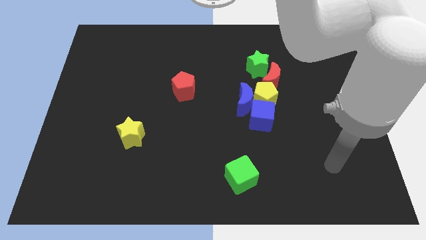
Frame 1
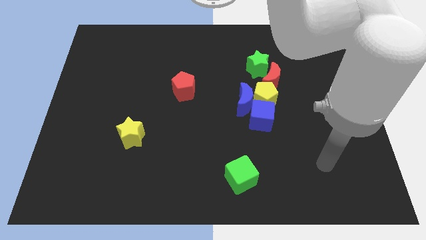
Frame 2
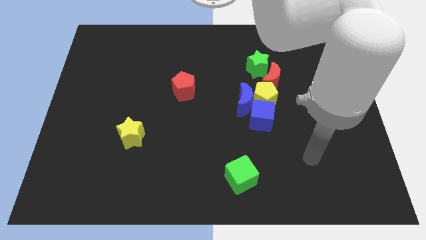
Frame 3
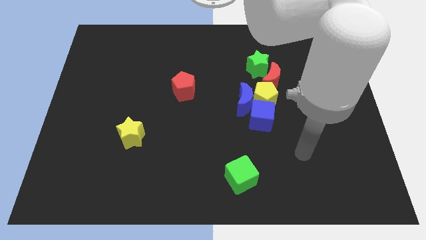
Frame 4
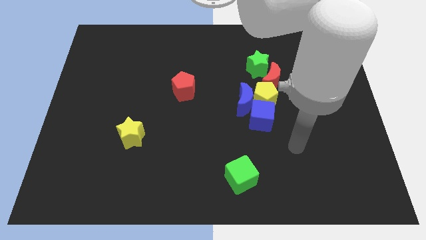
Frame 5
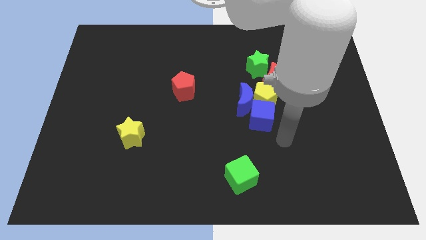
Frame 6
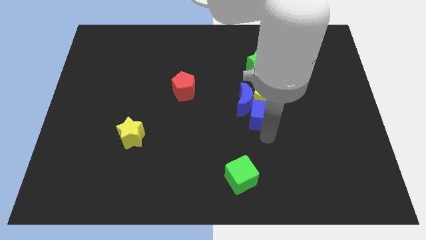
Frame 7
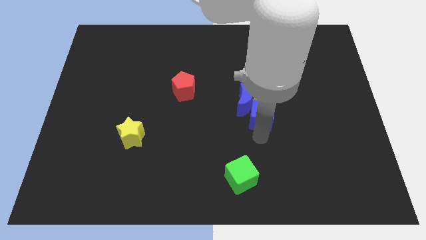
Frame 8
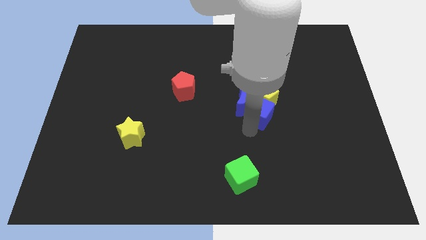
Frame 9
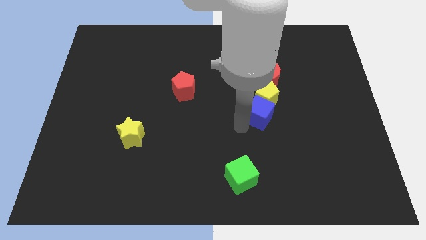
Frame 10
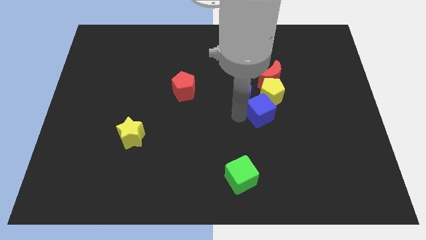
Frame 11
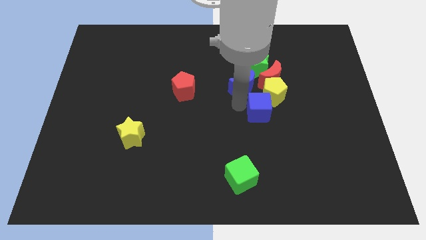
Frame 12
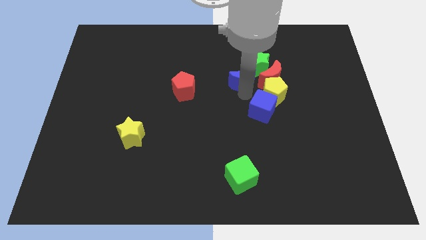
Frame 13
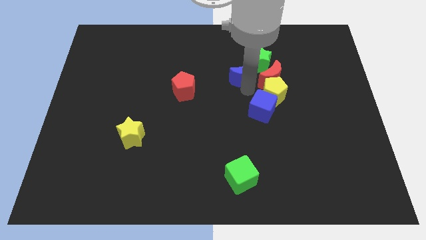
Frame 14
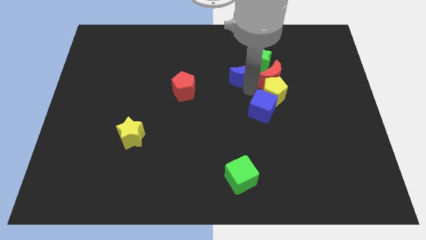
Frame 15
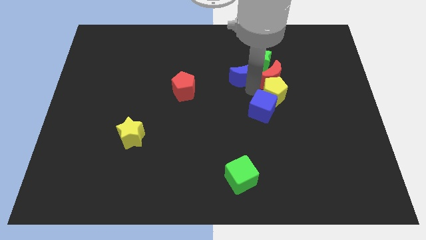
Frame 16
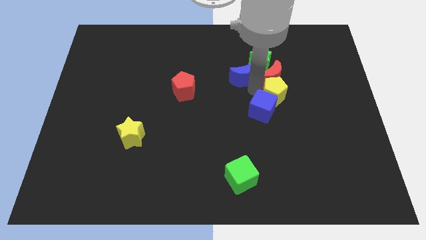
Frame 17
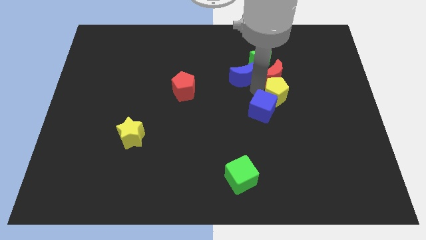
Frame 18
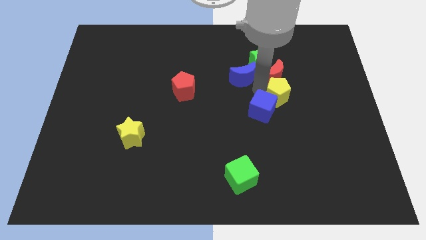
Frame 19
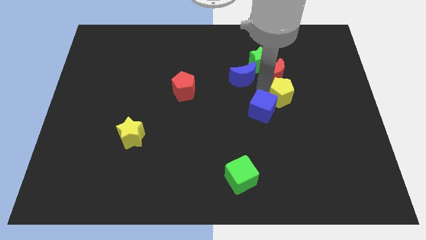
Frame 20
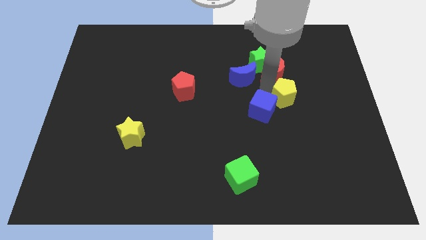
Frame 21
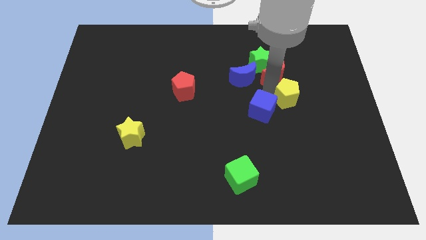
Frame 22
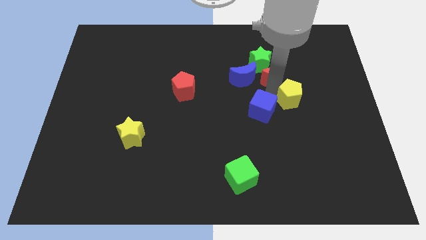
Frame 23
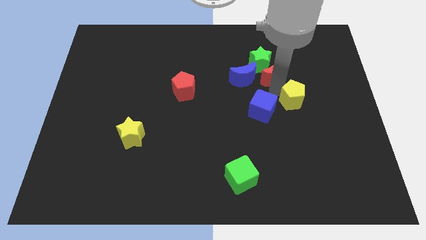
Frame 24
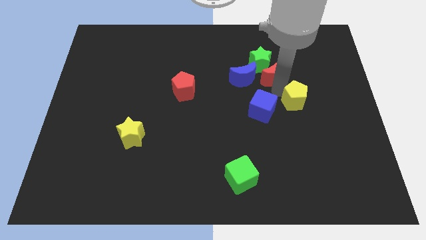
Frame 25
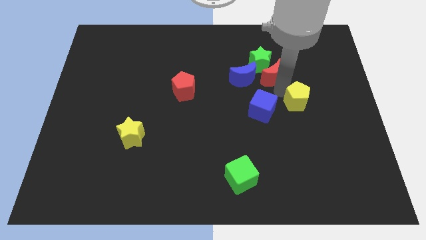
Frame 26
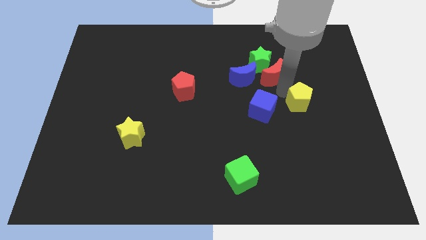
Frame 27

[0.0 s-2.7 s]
pull the yellow pentagon apart from the blue moon, red moon, and blue cube

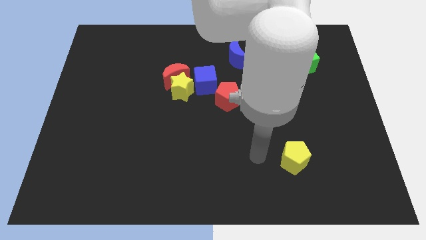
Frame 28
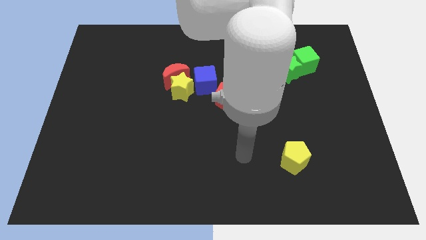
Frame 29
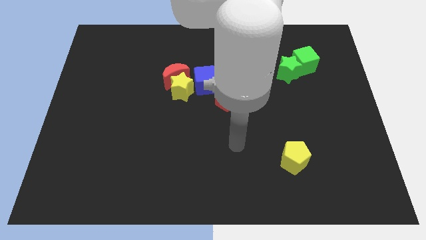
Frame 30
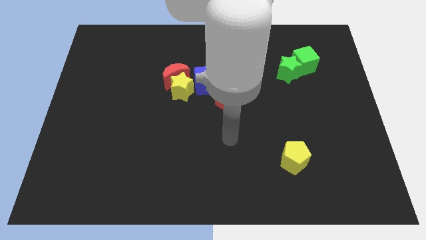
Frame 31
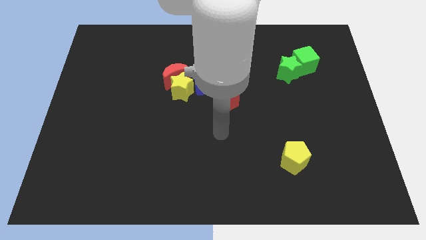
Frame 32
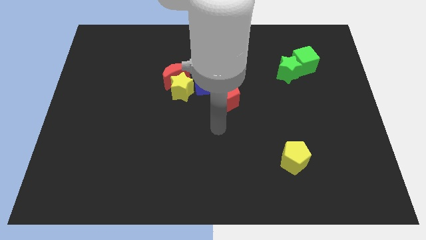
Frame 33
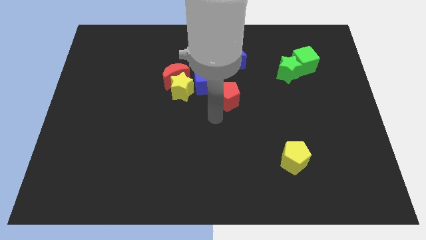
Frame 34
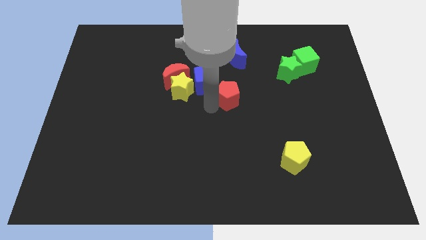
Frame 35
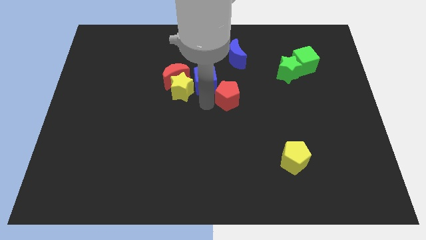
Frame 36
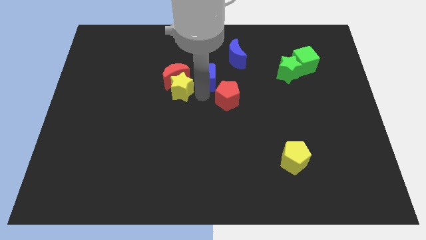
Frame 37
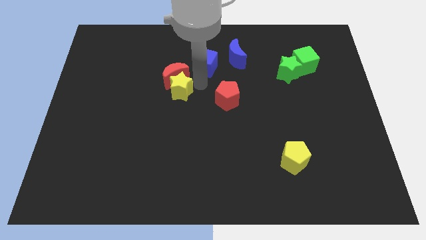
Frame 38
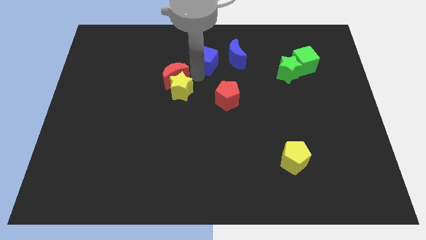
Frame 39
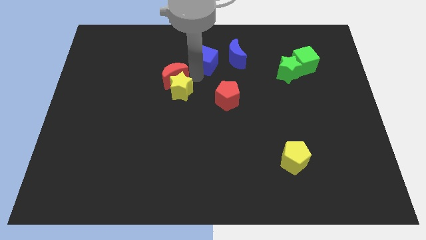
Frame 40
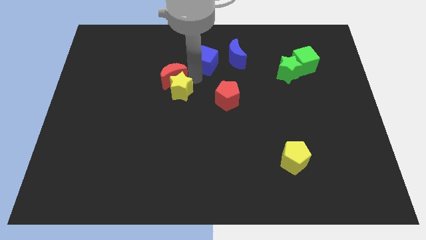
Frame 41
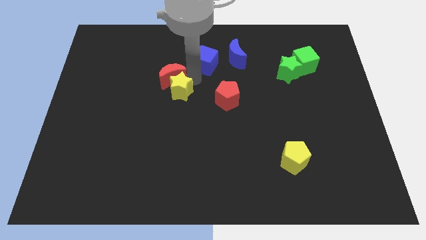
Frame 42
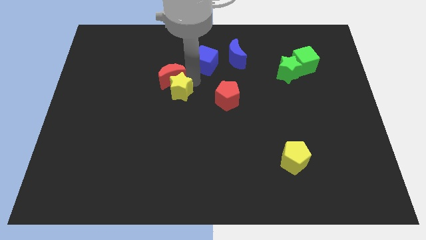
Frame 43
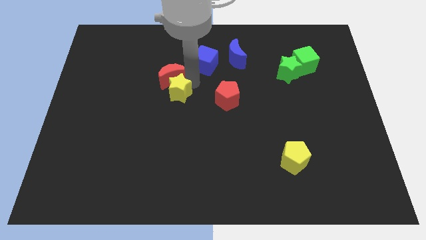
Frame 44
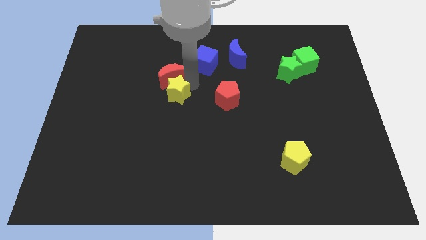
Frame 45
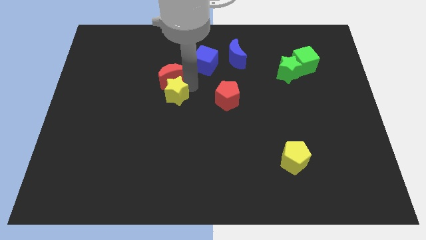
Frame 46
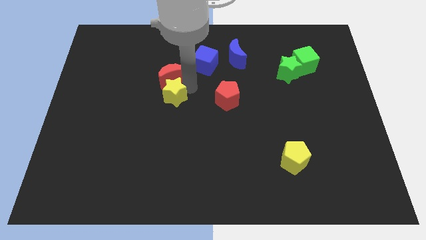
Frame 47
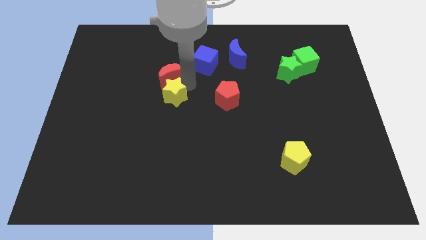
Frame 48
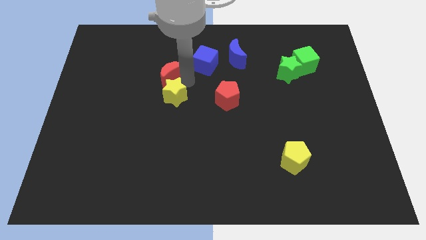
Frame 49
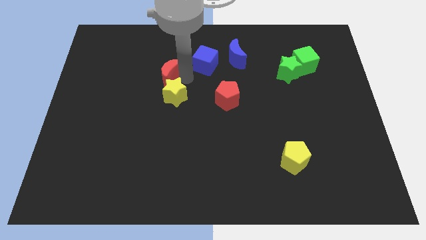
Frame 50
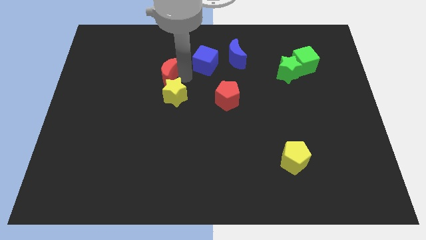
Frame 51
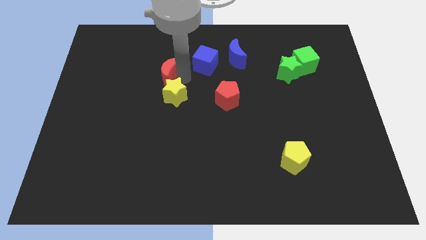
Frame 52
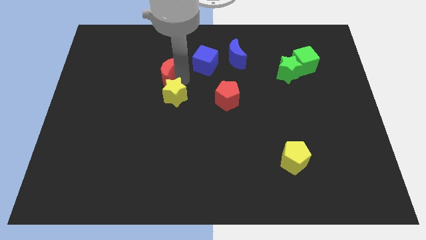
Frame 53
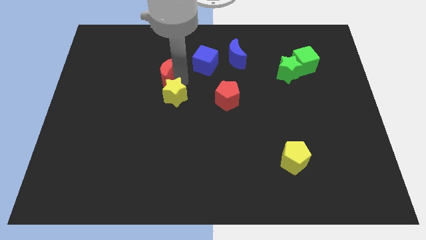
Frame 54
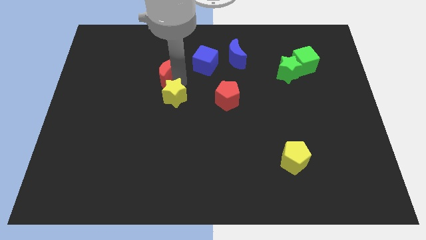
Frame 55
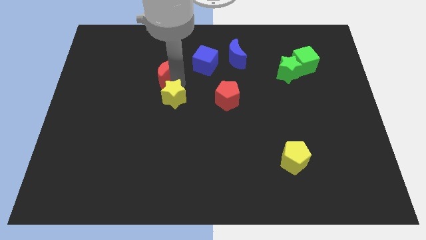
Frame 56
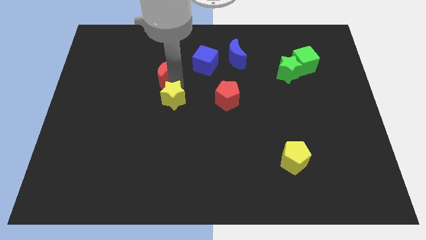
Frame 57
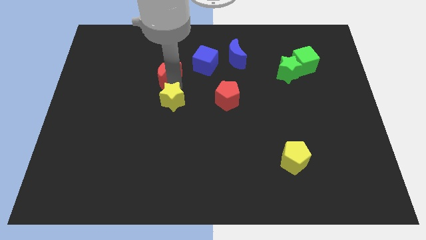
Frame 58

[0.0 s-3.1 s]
pull the yellow star apart from the red moon and blue cube

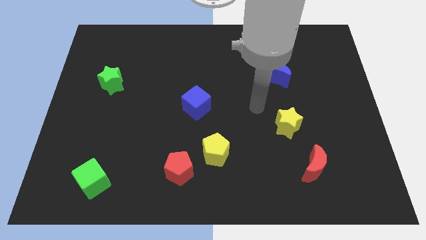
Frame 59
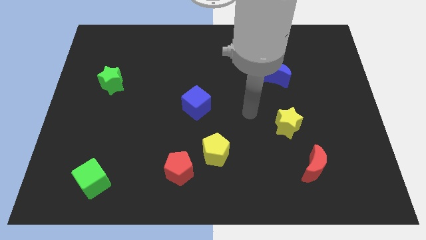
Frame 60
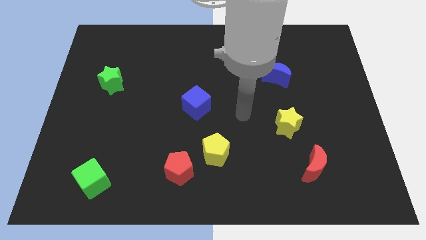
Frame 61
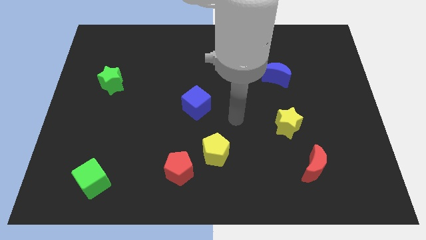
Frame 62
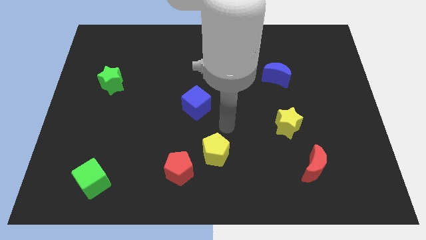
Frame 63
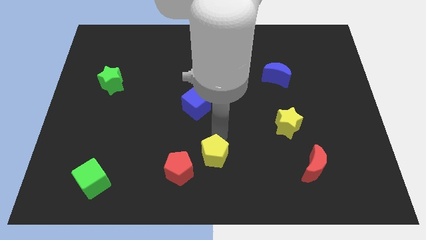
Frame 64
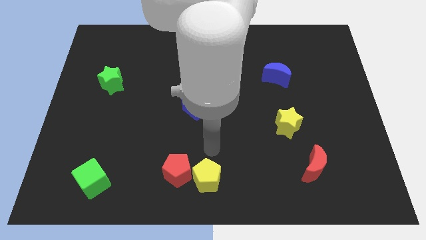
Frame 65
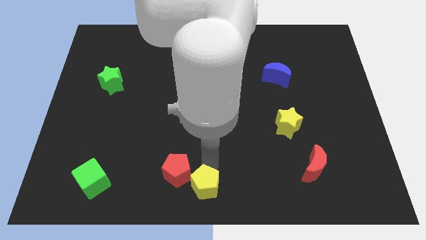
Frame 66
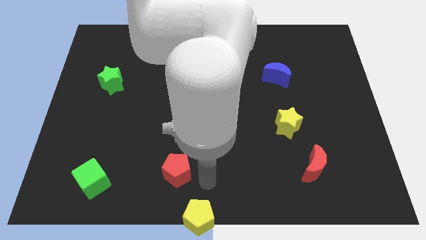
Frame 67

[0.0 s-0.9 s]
move the red pentagon away from the yellow pentagon

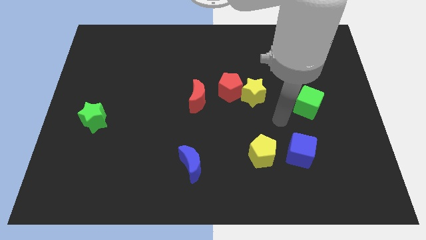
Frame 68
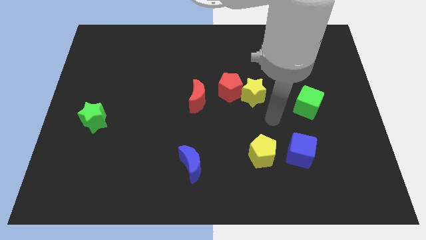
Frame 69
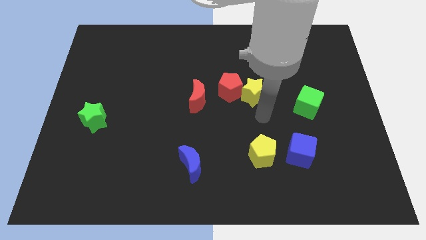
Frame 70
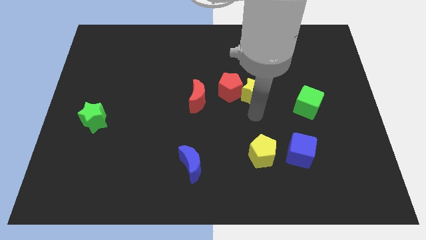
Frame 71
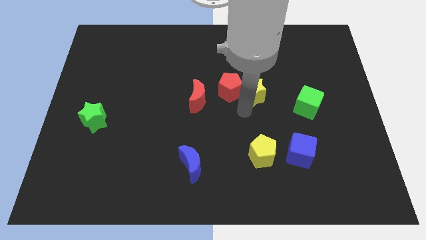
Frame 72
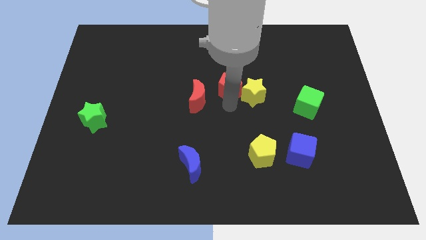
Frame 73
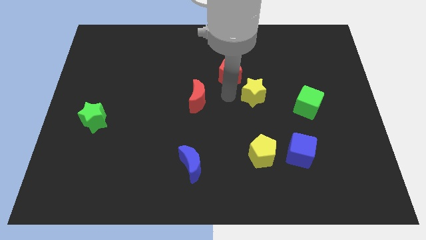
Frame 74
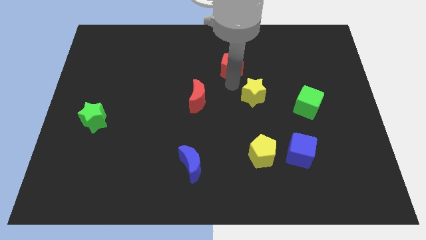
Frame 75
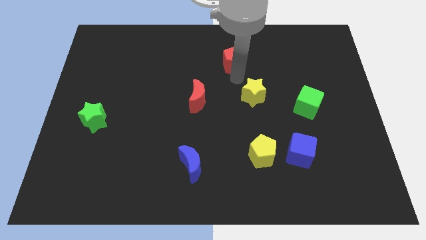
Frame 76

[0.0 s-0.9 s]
pull the yellow star apart from the red pentagon

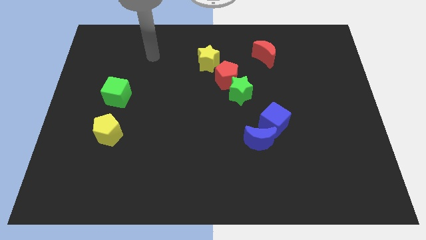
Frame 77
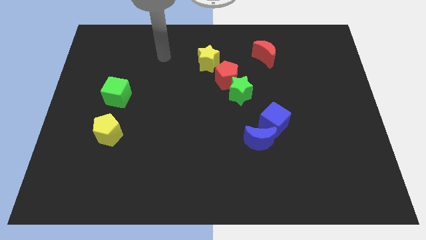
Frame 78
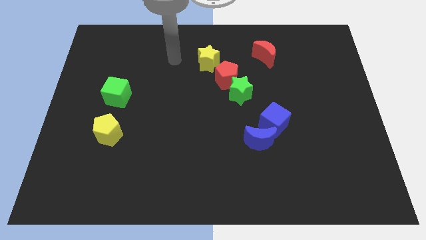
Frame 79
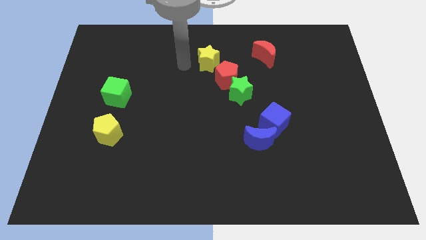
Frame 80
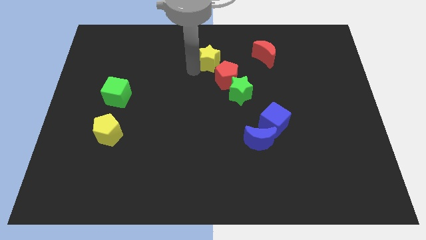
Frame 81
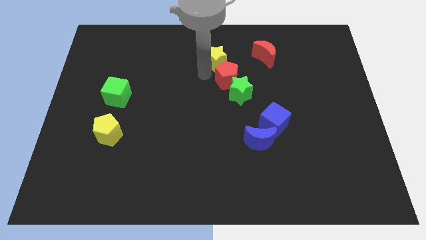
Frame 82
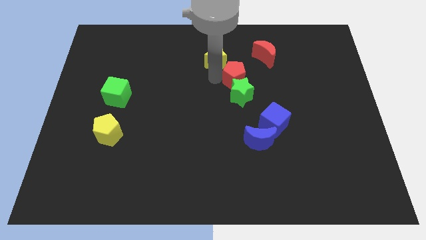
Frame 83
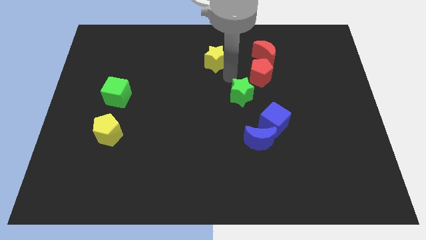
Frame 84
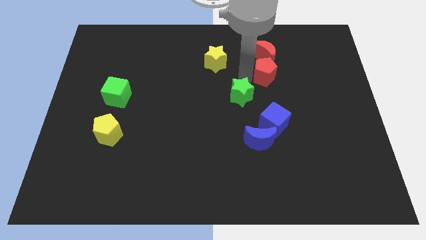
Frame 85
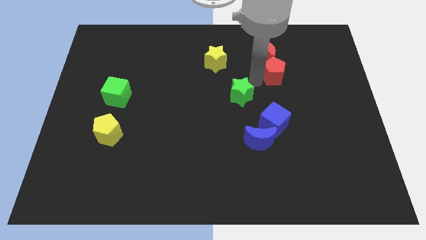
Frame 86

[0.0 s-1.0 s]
move the green star away from the red pentagon

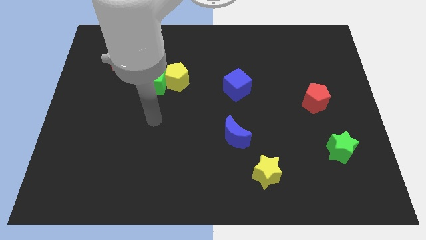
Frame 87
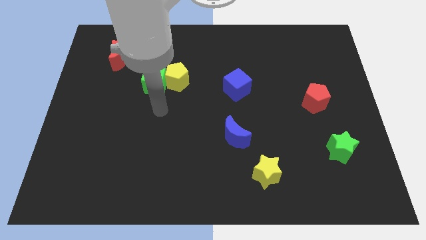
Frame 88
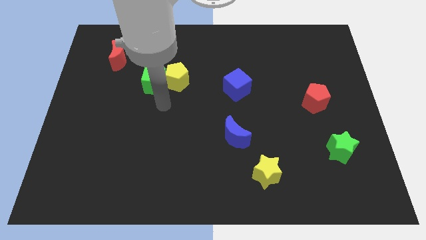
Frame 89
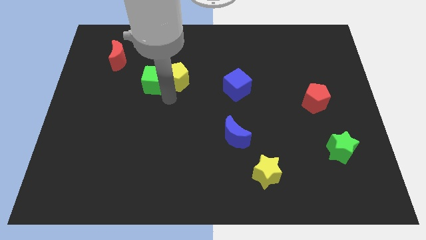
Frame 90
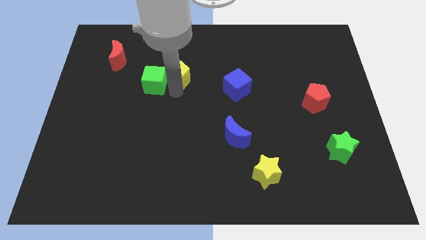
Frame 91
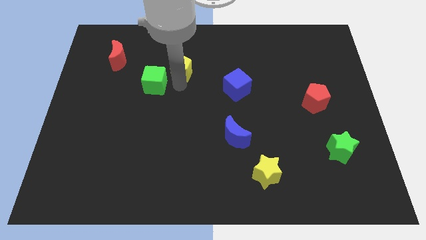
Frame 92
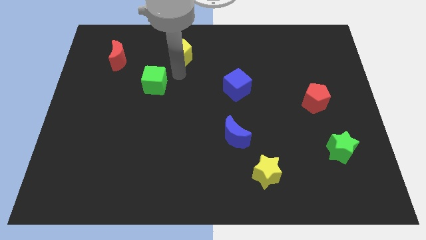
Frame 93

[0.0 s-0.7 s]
pull the green cube apart from the yellow pentagon

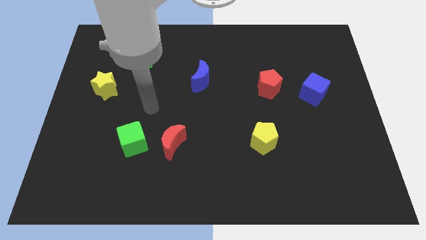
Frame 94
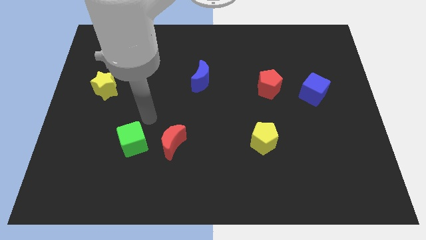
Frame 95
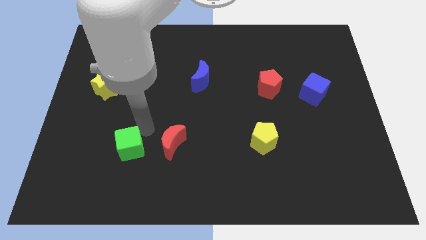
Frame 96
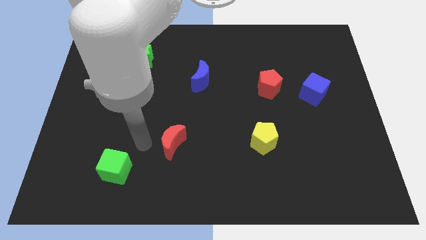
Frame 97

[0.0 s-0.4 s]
move the red moon away from the green cube
